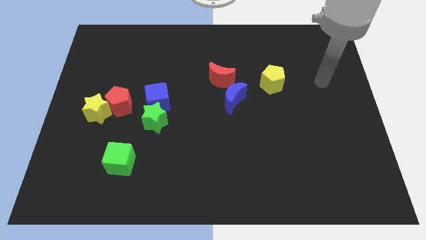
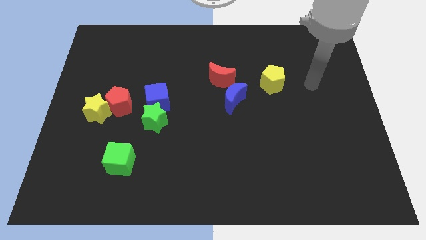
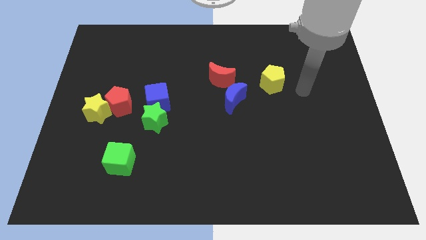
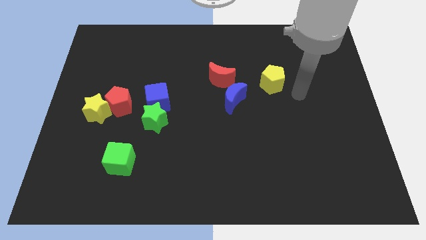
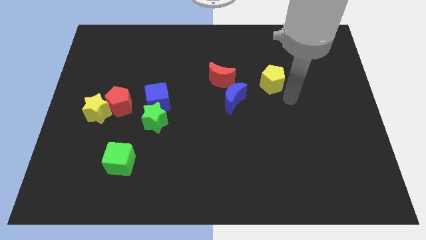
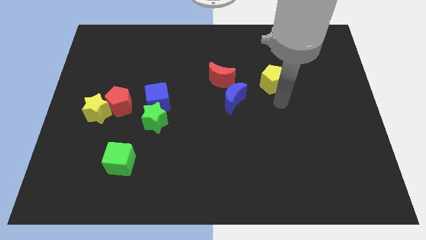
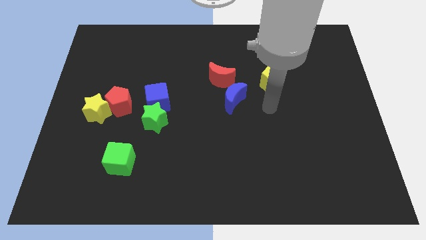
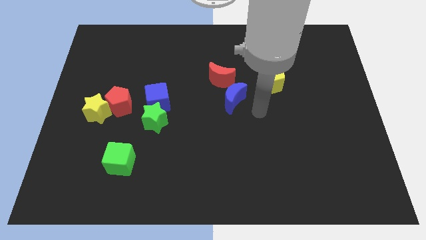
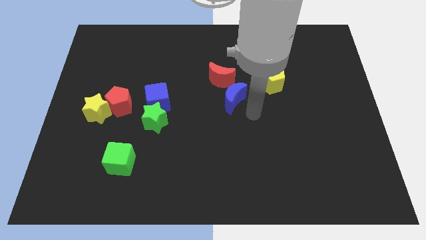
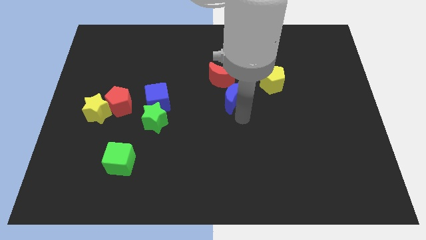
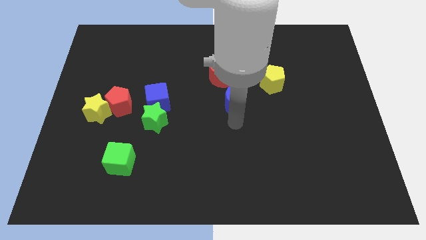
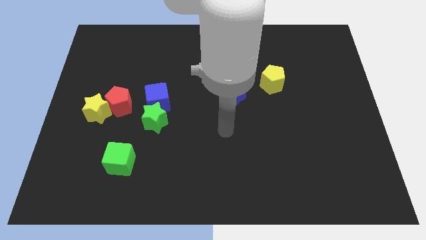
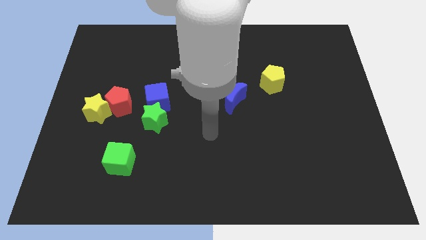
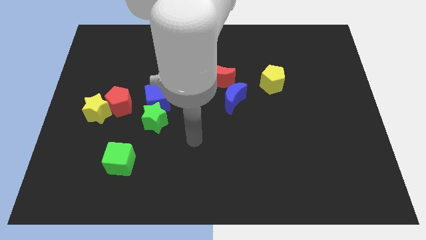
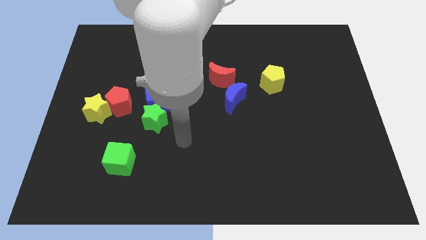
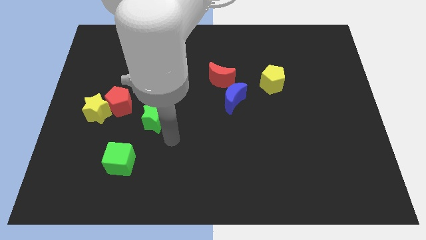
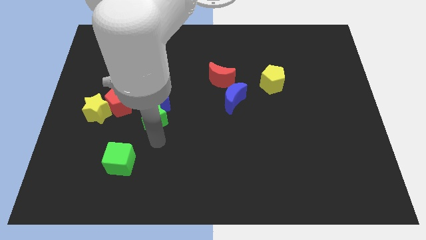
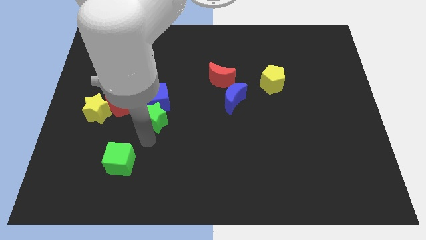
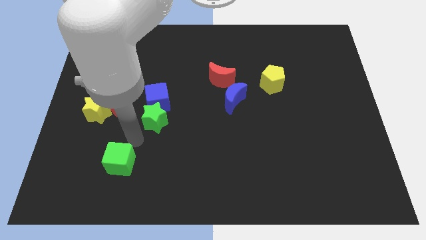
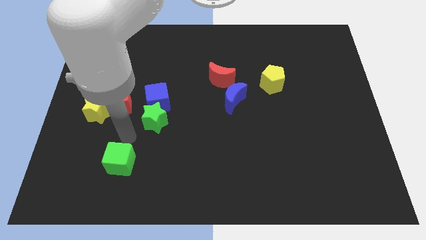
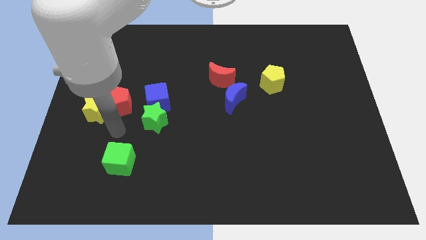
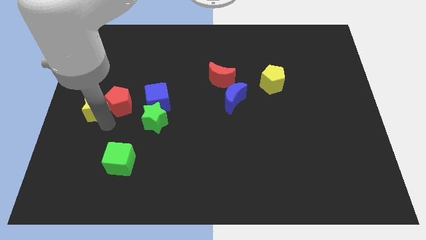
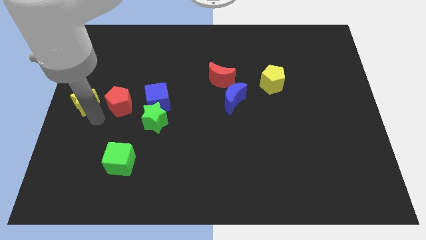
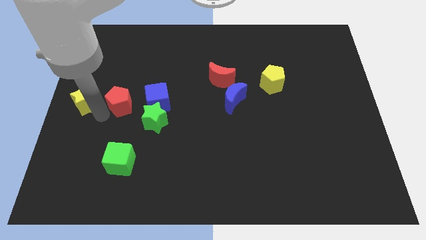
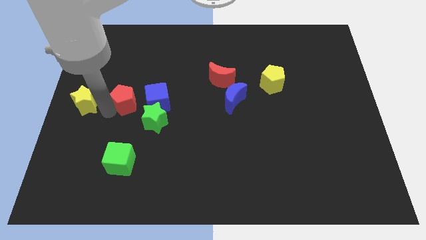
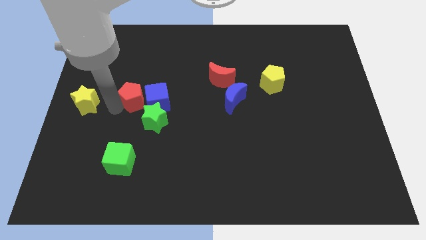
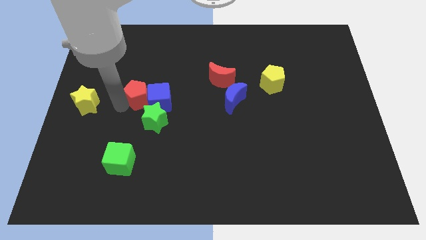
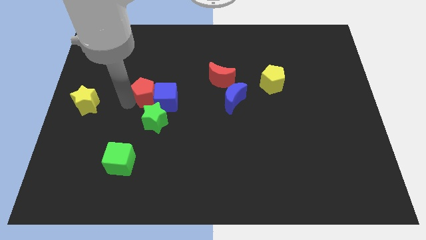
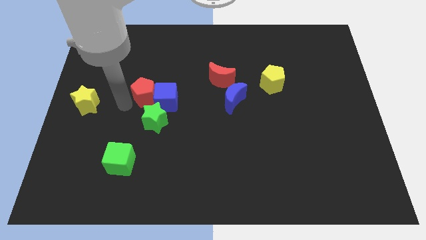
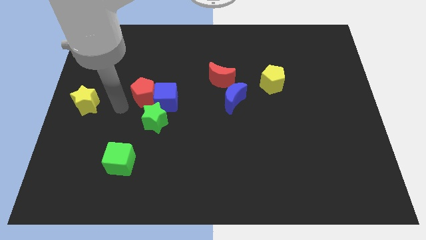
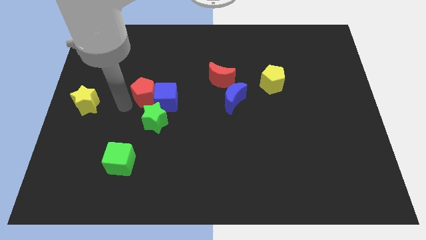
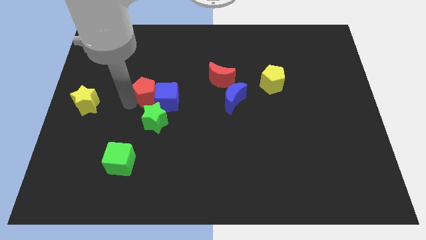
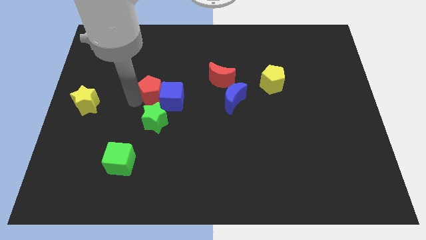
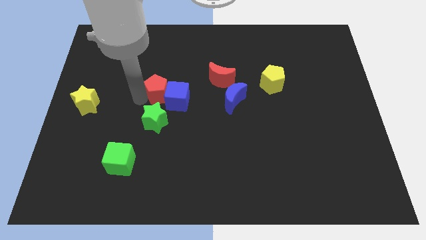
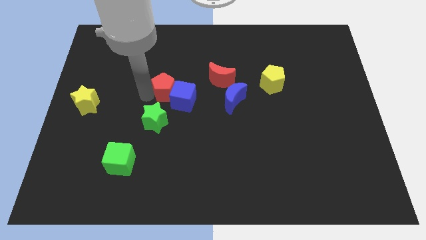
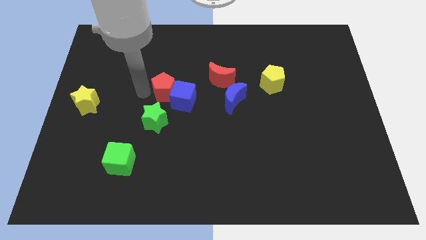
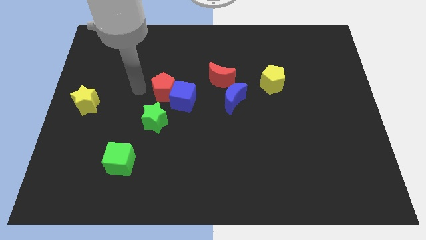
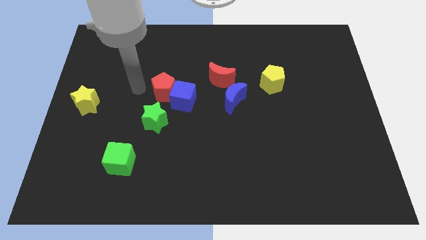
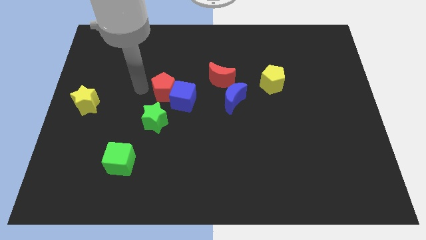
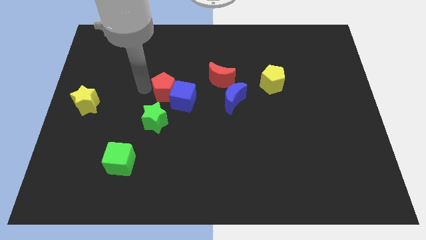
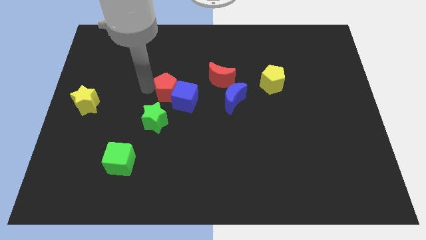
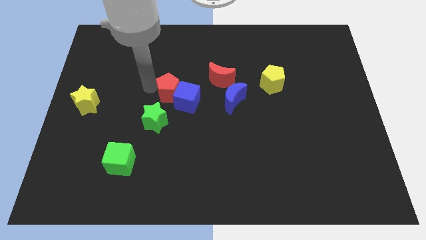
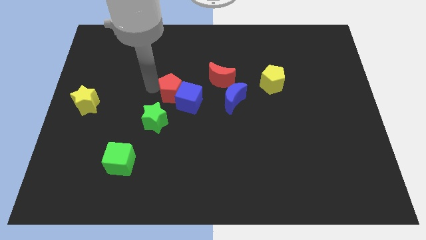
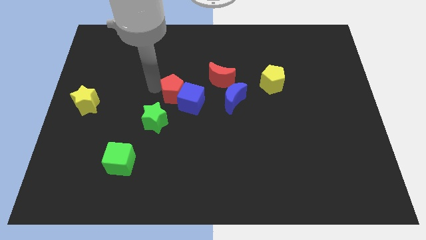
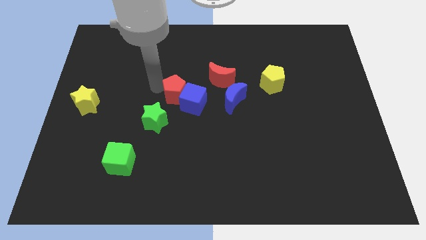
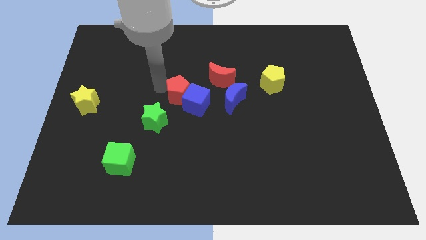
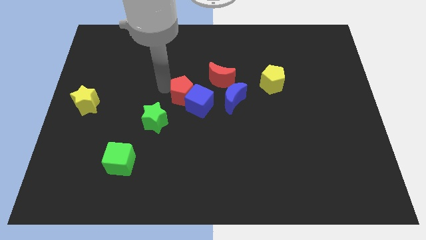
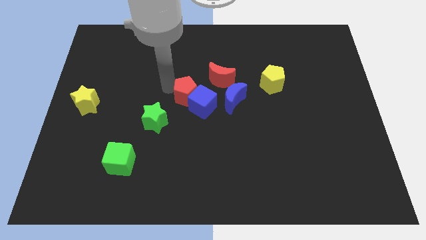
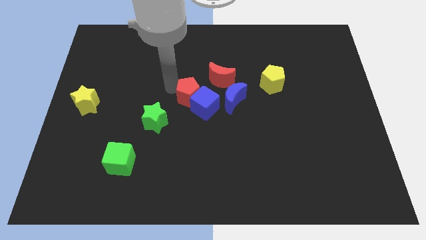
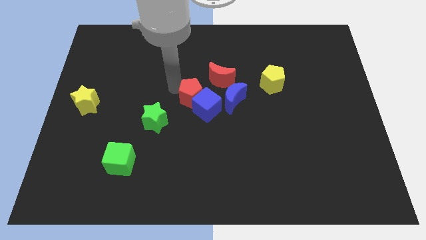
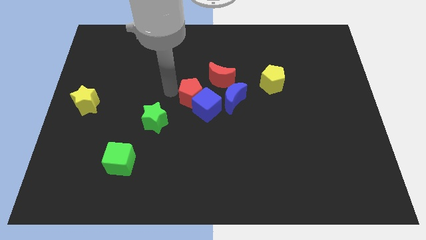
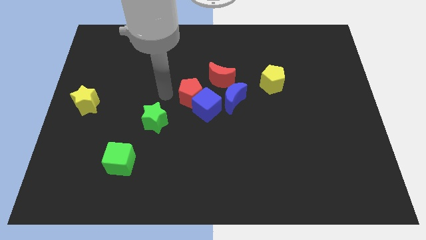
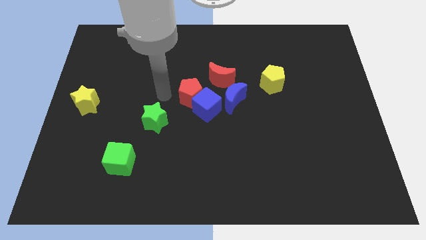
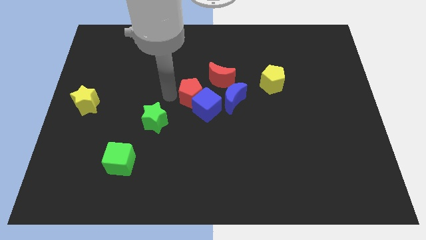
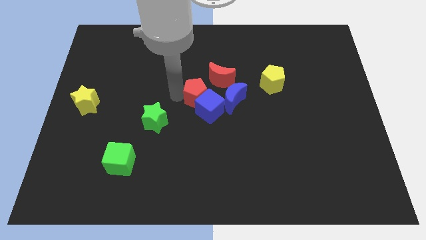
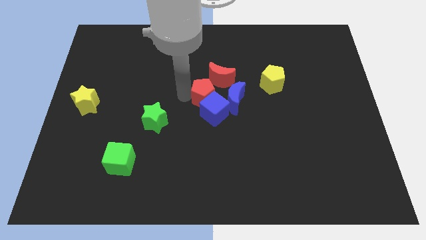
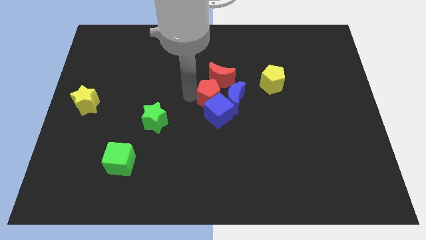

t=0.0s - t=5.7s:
move the red pentagon to the blue moon

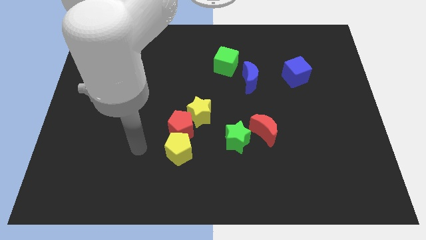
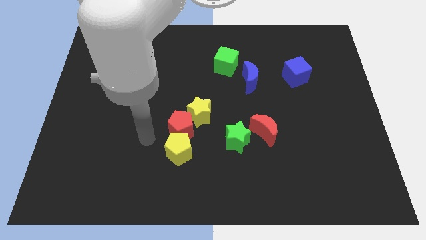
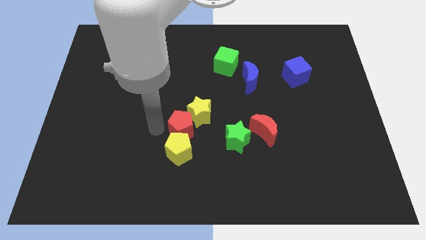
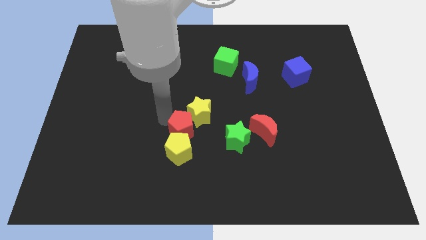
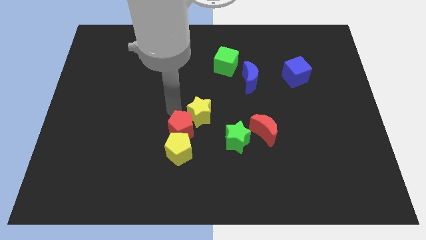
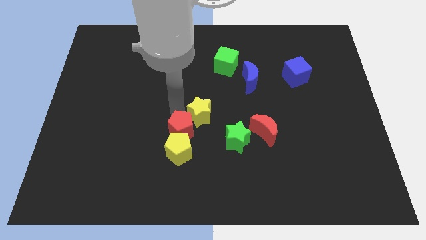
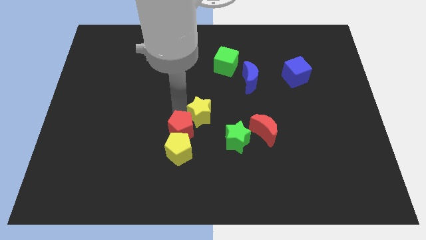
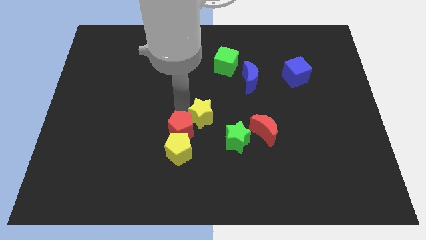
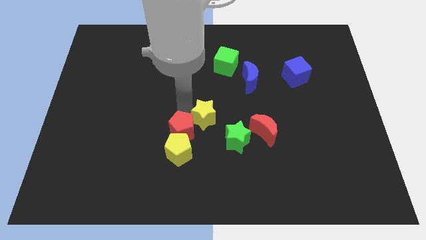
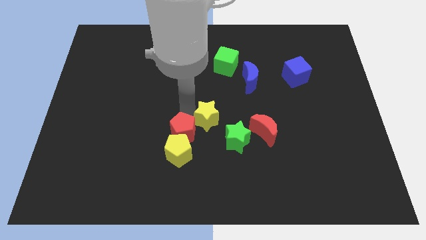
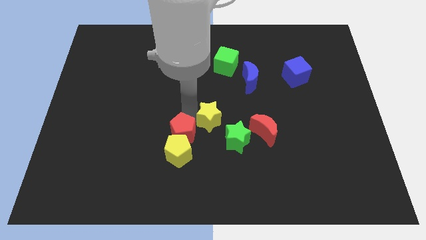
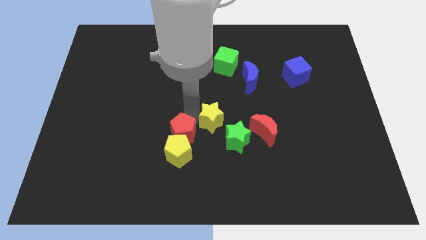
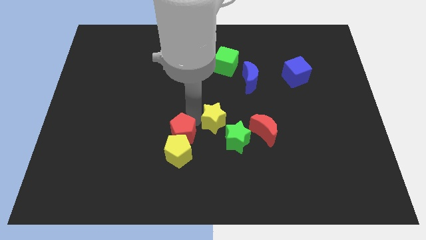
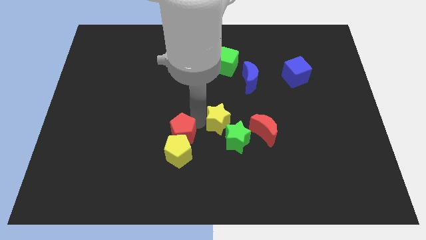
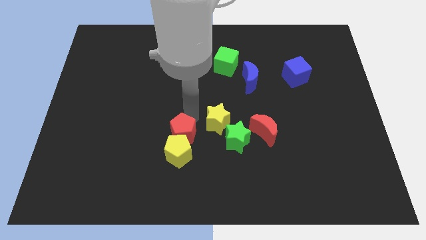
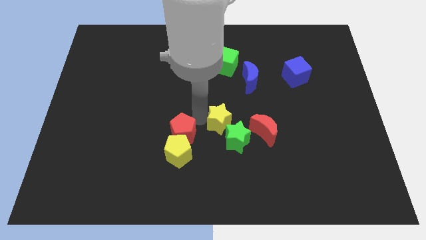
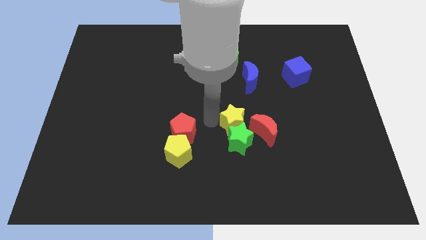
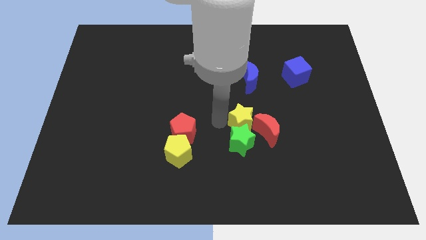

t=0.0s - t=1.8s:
push the yellow star next to the red moon
